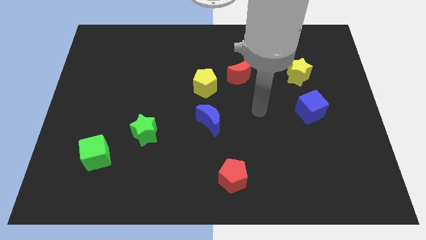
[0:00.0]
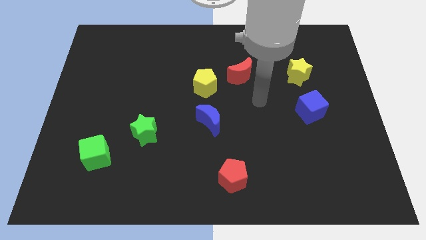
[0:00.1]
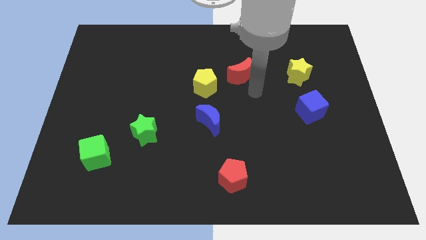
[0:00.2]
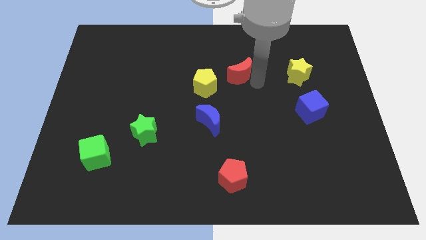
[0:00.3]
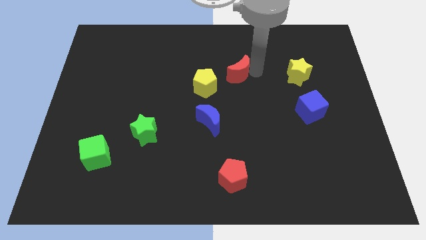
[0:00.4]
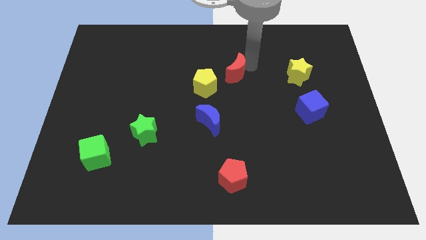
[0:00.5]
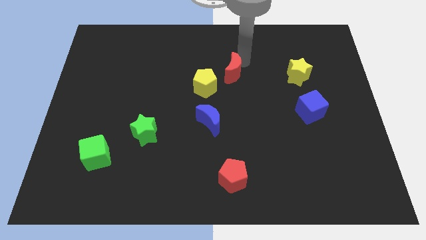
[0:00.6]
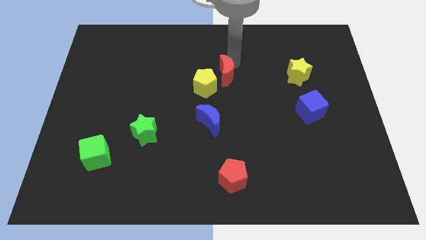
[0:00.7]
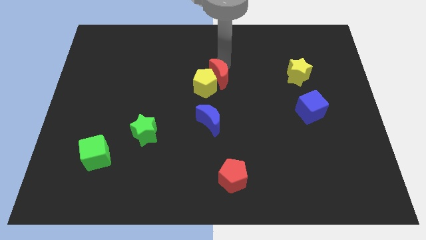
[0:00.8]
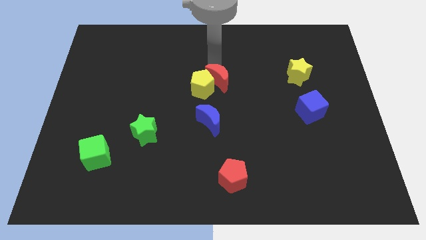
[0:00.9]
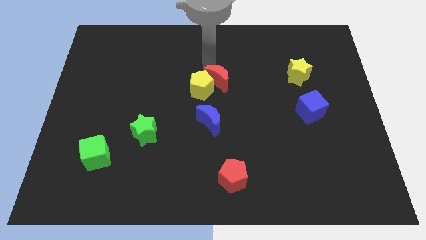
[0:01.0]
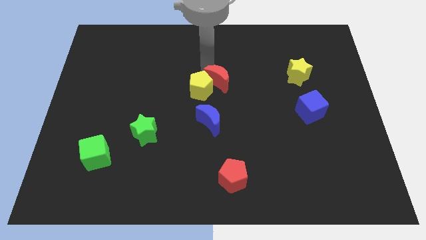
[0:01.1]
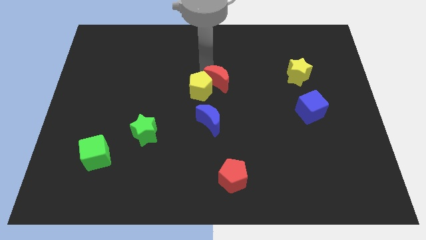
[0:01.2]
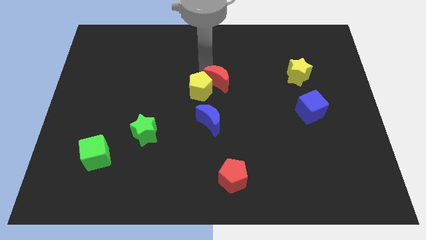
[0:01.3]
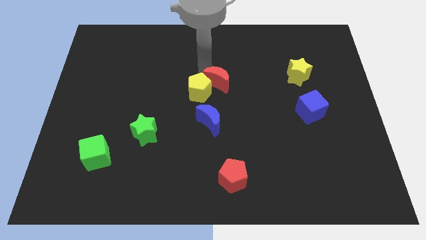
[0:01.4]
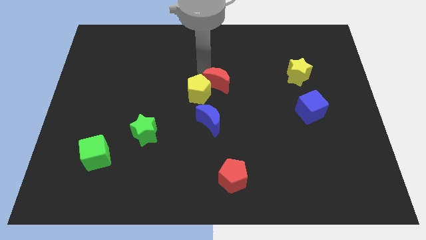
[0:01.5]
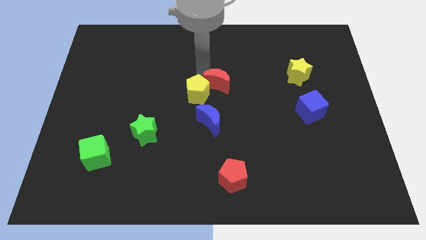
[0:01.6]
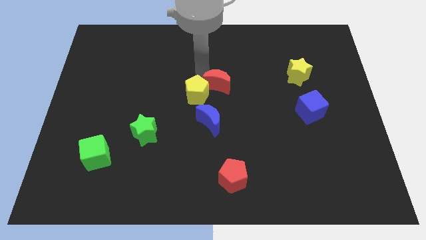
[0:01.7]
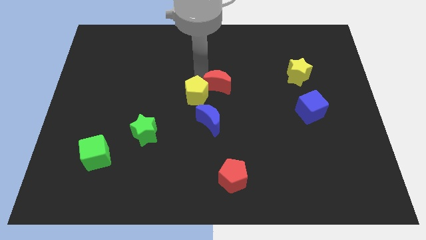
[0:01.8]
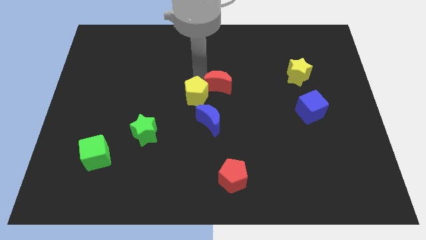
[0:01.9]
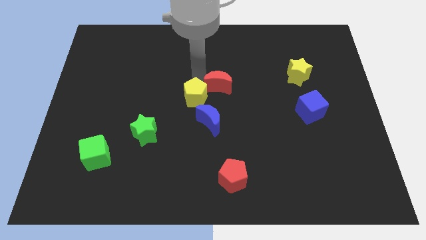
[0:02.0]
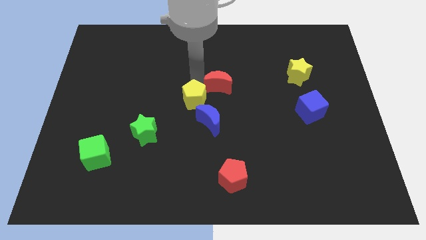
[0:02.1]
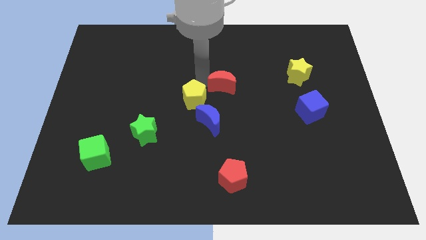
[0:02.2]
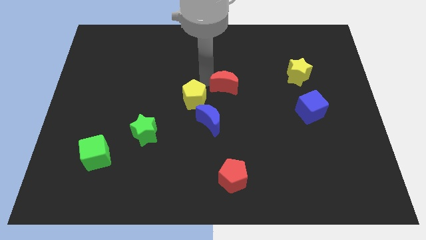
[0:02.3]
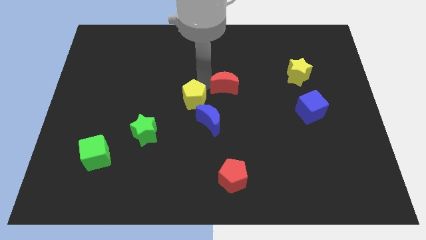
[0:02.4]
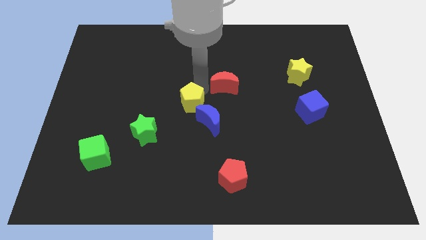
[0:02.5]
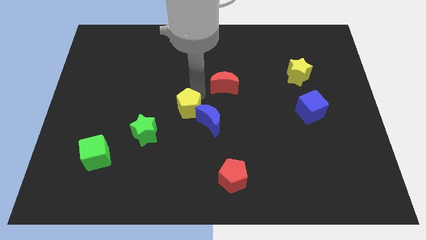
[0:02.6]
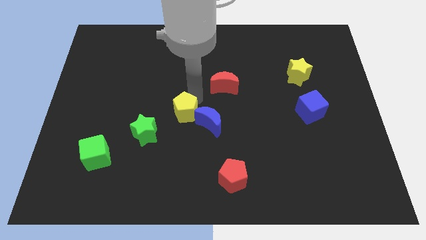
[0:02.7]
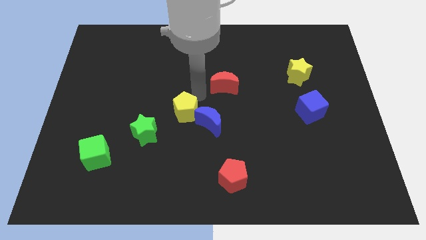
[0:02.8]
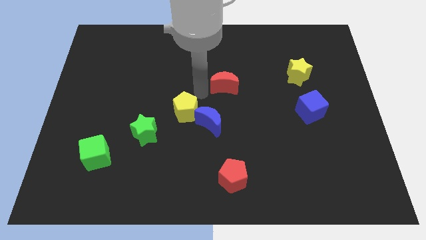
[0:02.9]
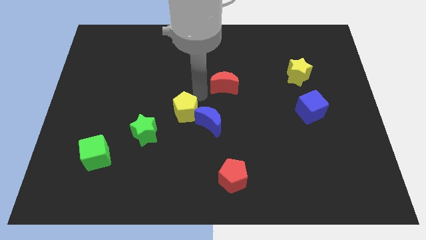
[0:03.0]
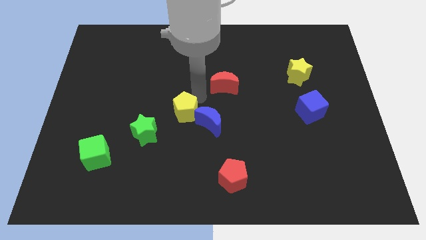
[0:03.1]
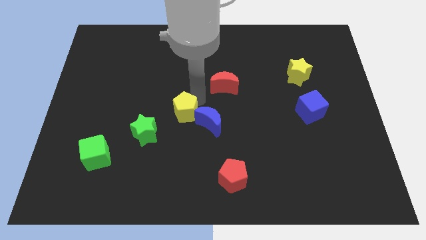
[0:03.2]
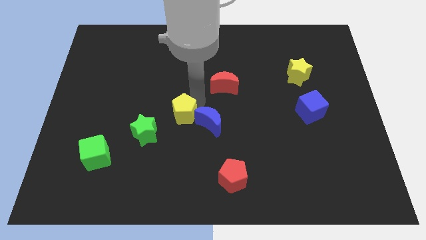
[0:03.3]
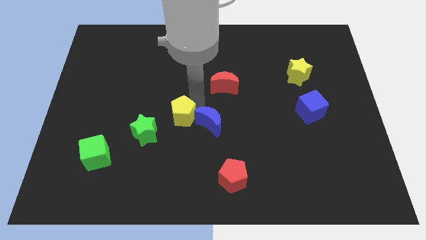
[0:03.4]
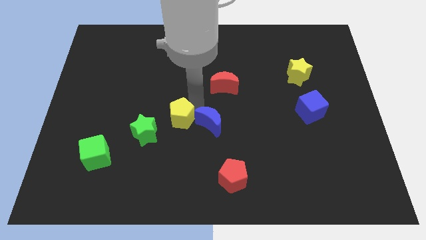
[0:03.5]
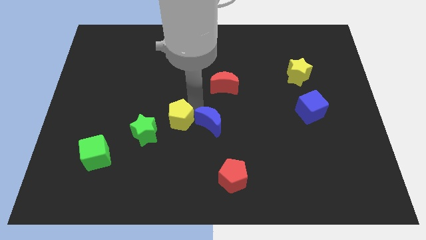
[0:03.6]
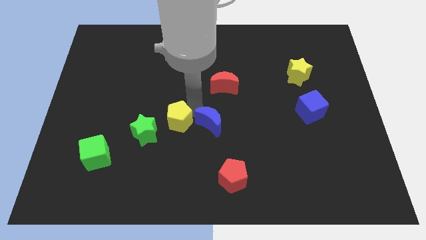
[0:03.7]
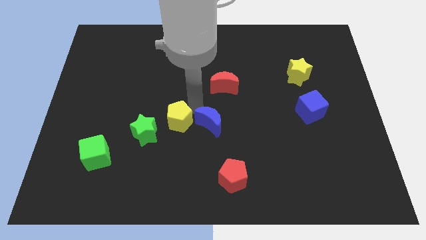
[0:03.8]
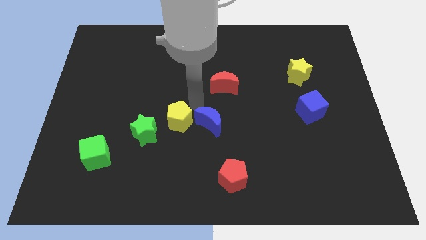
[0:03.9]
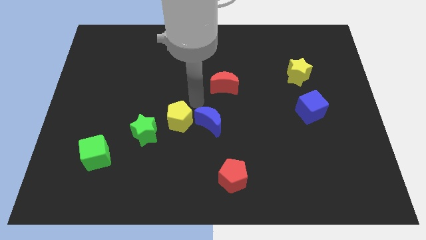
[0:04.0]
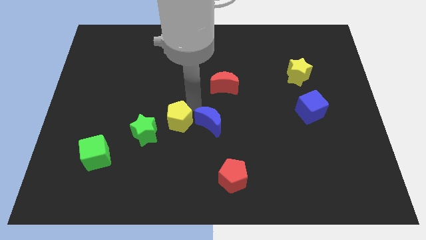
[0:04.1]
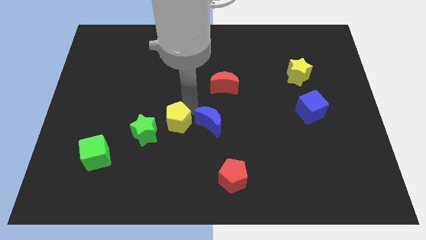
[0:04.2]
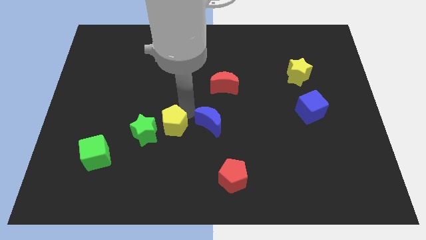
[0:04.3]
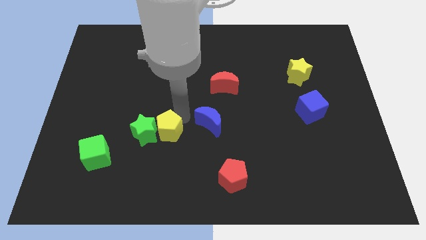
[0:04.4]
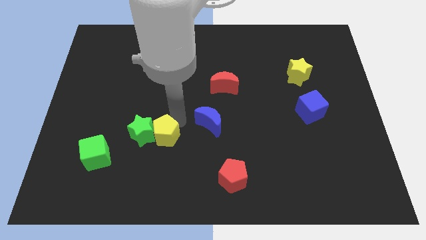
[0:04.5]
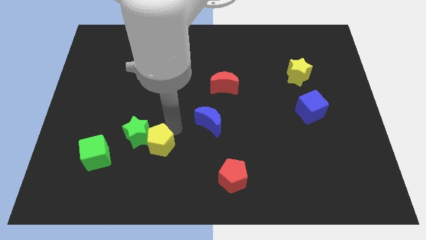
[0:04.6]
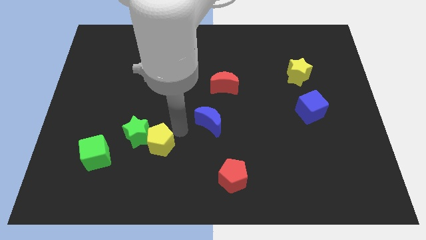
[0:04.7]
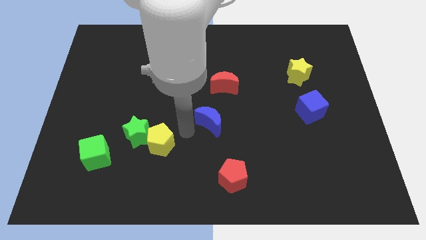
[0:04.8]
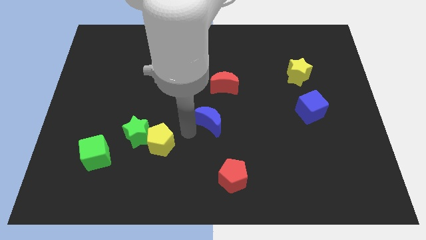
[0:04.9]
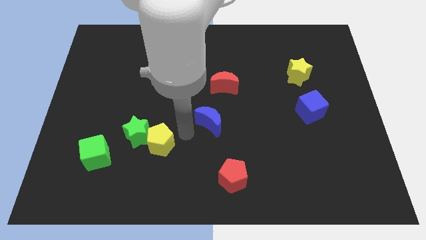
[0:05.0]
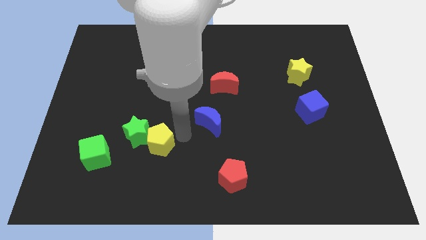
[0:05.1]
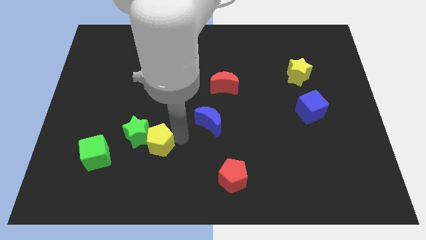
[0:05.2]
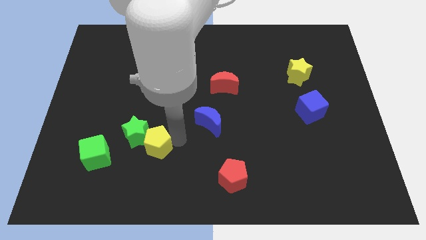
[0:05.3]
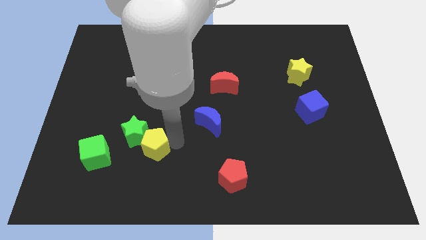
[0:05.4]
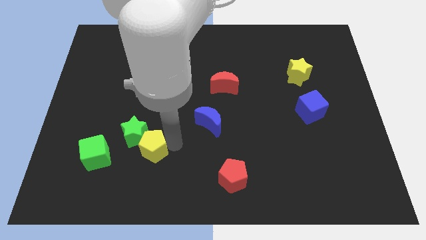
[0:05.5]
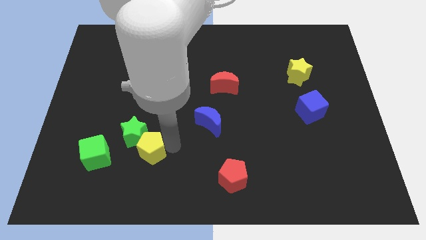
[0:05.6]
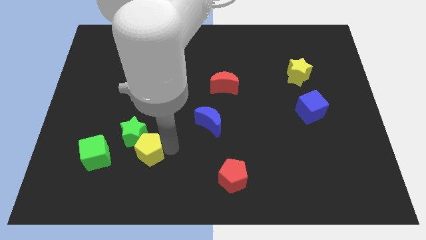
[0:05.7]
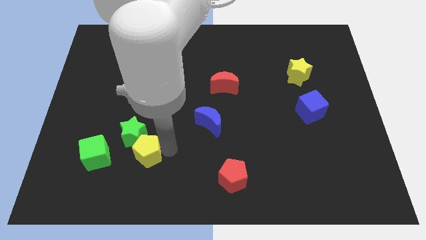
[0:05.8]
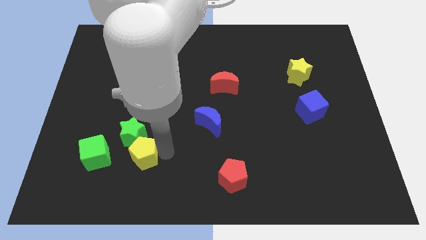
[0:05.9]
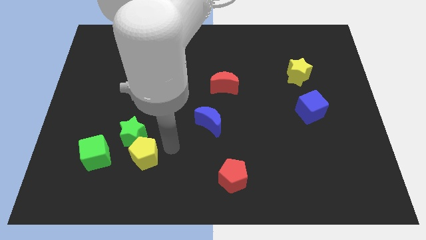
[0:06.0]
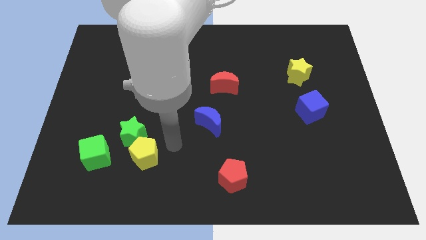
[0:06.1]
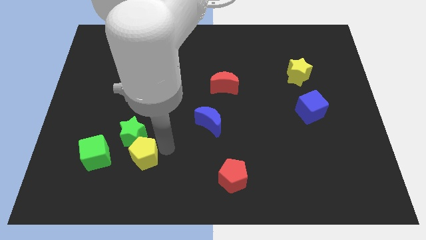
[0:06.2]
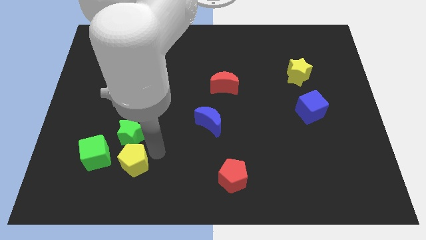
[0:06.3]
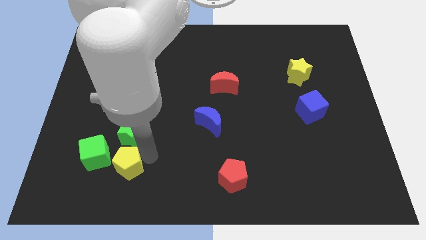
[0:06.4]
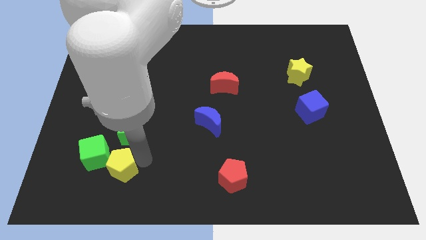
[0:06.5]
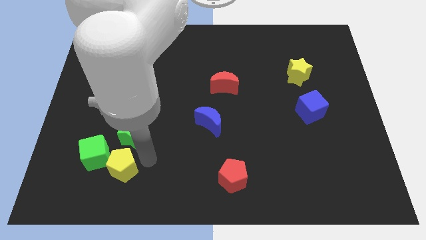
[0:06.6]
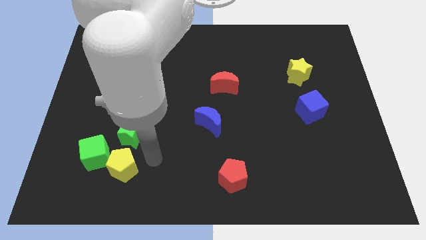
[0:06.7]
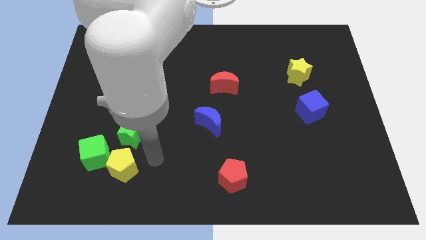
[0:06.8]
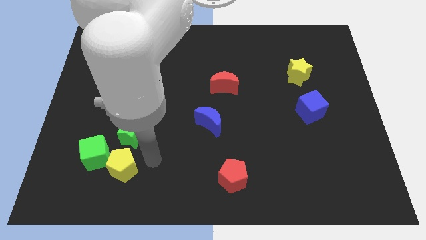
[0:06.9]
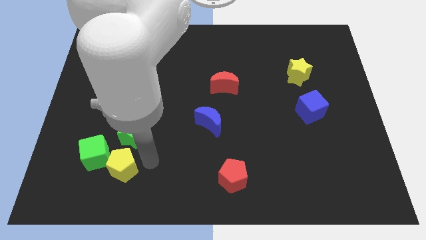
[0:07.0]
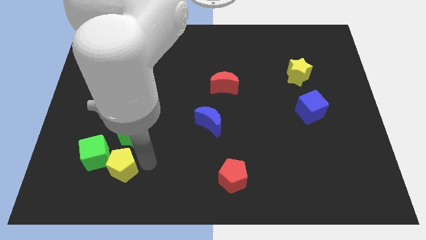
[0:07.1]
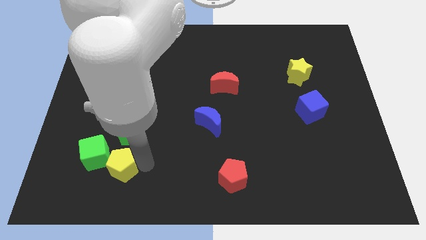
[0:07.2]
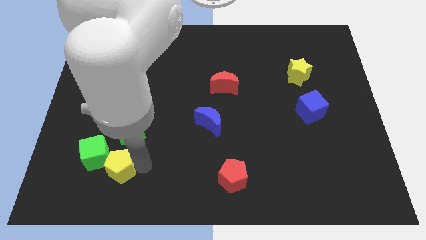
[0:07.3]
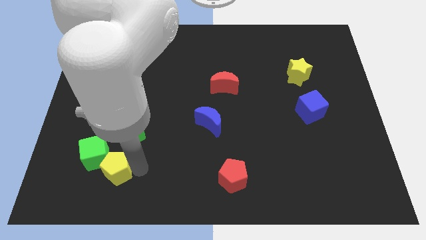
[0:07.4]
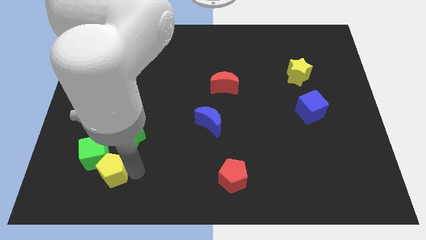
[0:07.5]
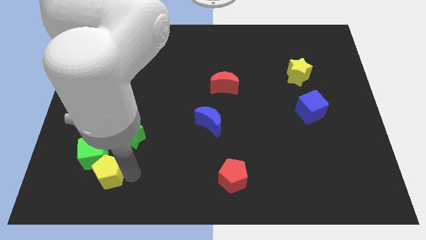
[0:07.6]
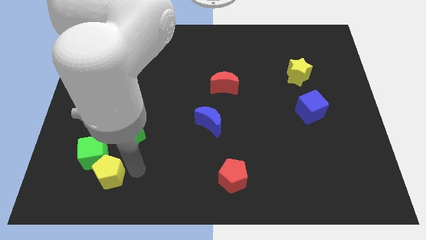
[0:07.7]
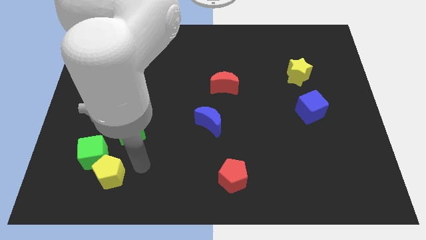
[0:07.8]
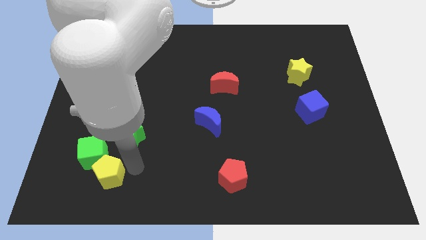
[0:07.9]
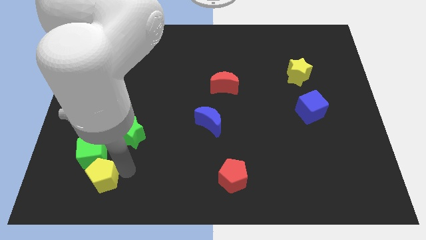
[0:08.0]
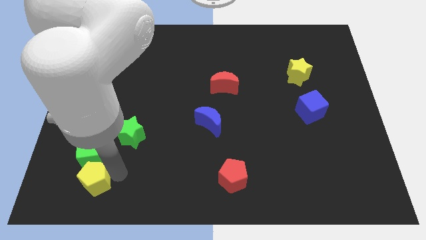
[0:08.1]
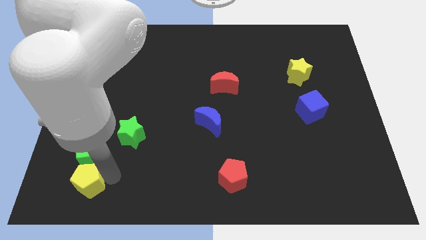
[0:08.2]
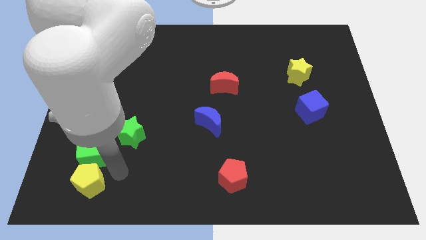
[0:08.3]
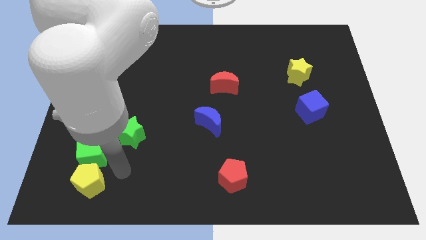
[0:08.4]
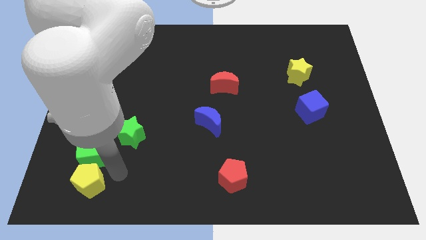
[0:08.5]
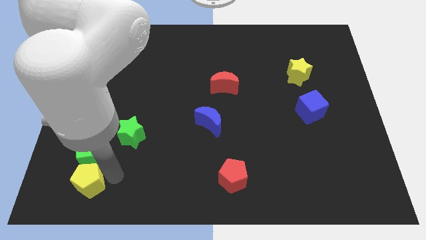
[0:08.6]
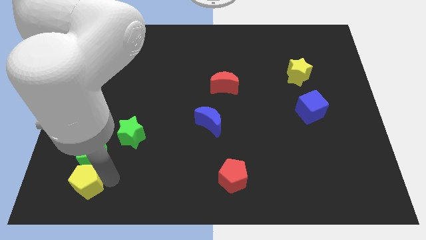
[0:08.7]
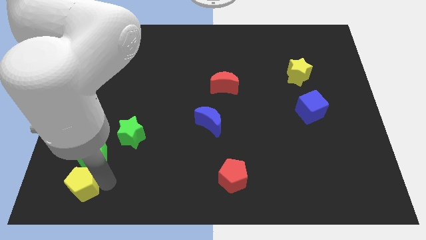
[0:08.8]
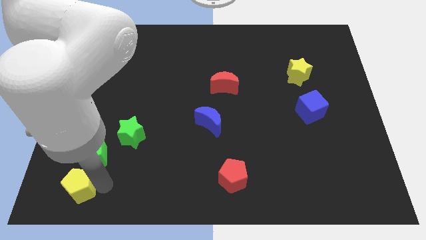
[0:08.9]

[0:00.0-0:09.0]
move the yellow pentagon to the bottom left corner
